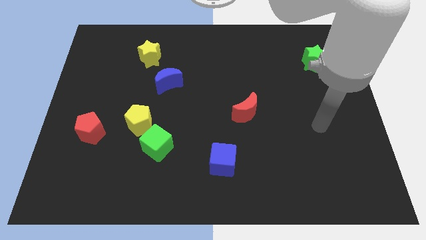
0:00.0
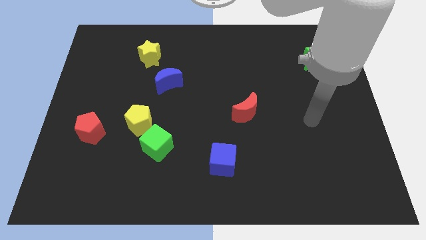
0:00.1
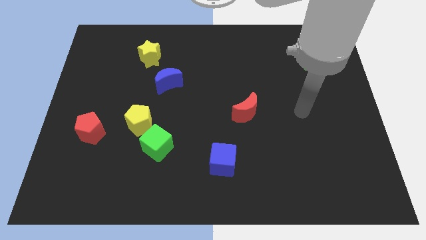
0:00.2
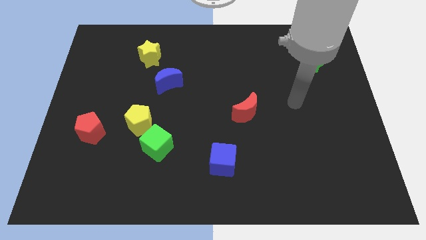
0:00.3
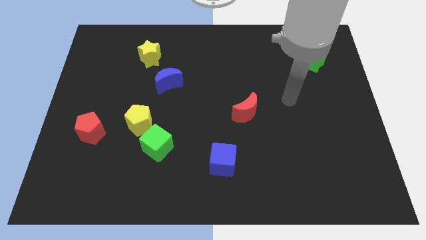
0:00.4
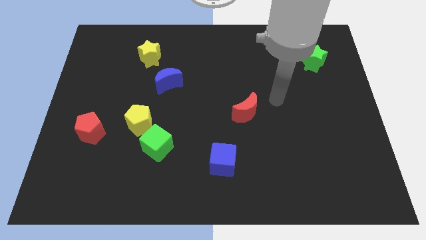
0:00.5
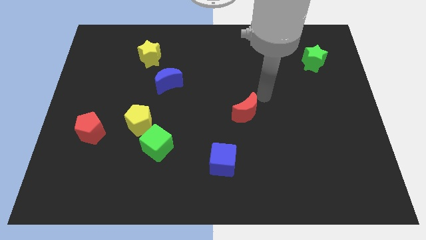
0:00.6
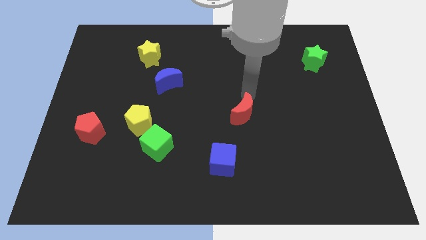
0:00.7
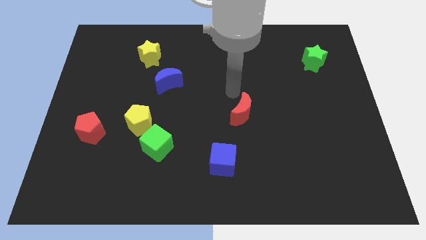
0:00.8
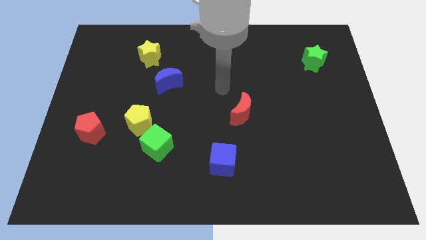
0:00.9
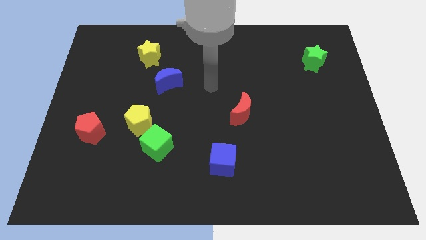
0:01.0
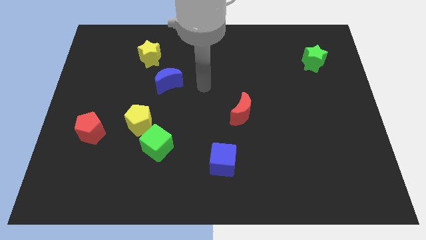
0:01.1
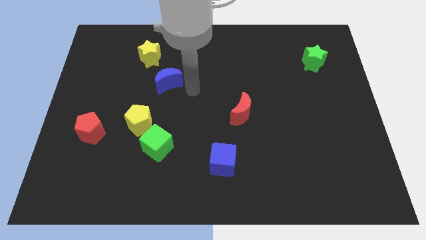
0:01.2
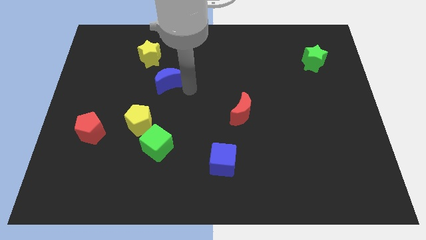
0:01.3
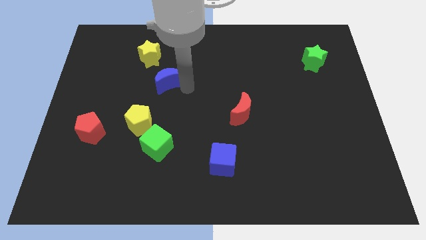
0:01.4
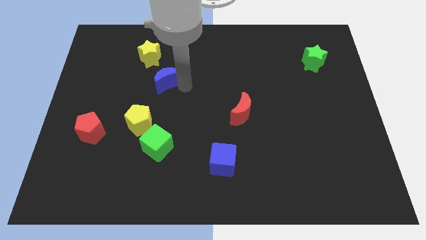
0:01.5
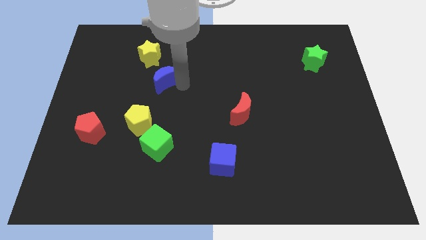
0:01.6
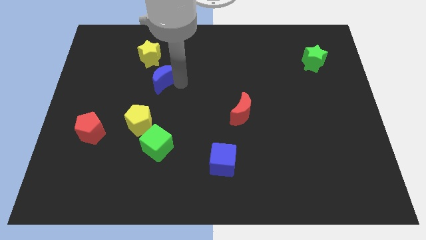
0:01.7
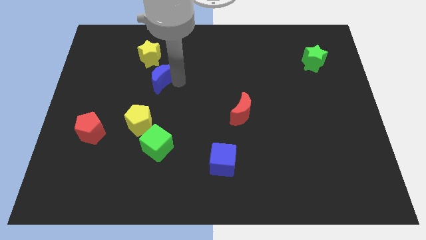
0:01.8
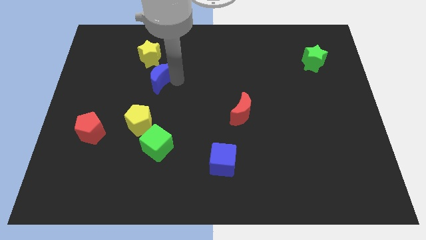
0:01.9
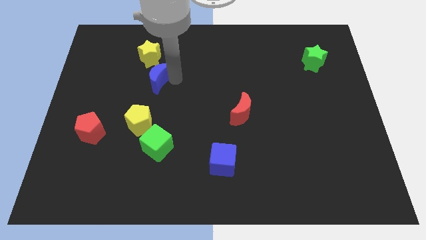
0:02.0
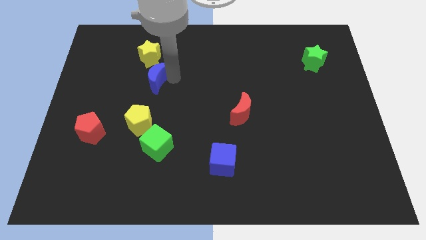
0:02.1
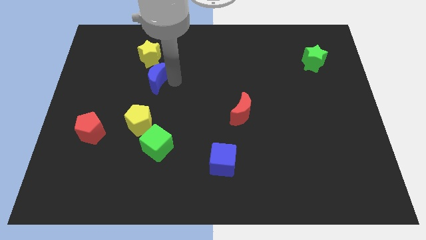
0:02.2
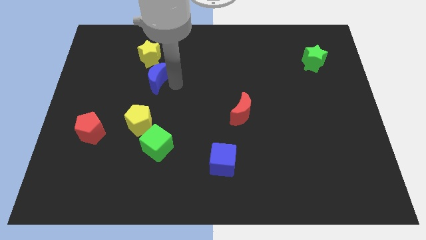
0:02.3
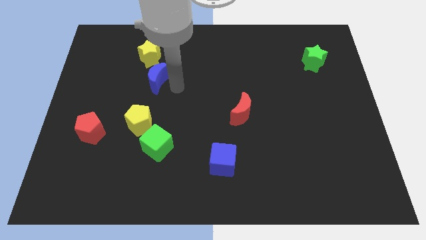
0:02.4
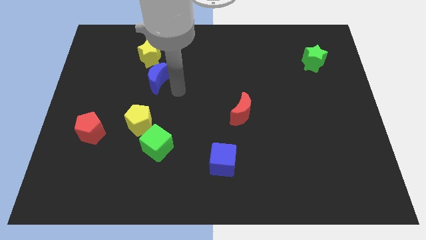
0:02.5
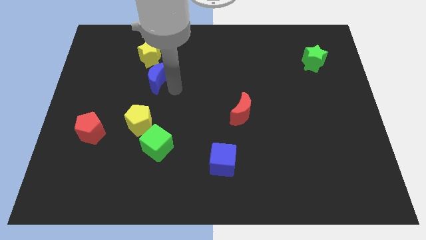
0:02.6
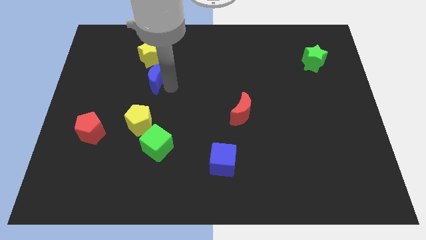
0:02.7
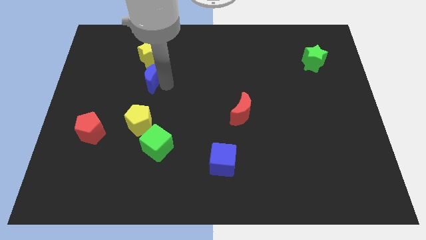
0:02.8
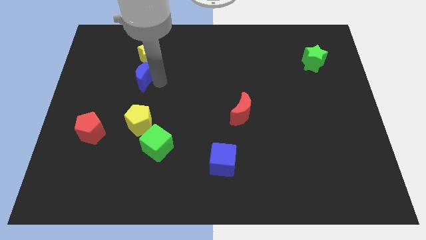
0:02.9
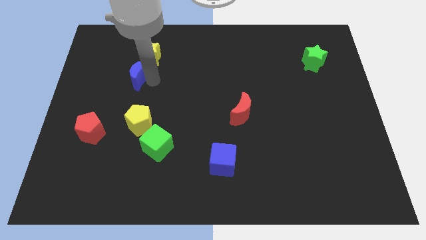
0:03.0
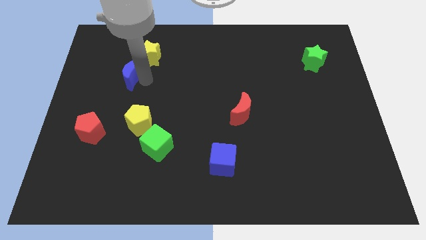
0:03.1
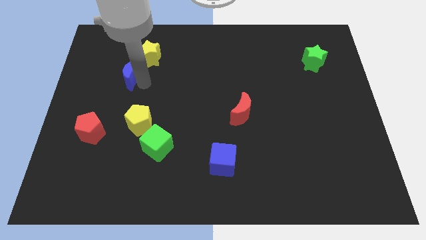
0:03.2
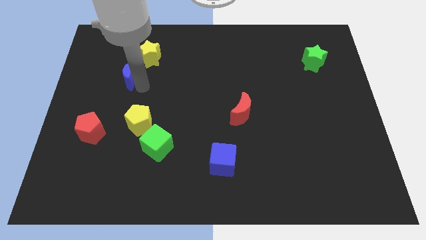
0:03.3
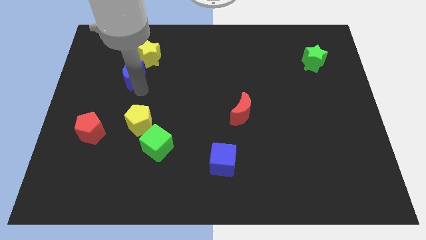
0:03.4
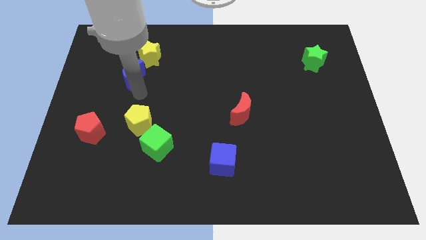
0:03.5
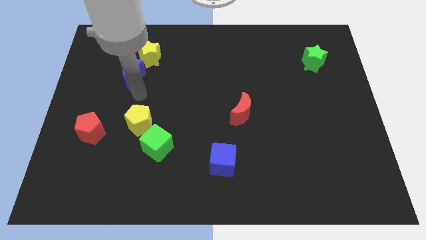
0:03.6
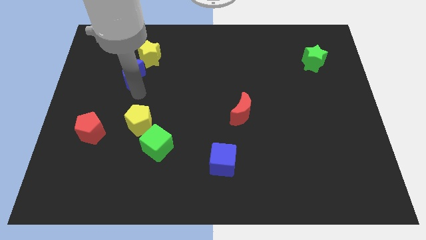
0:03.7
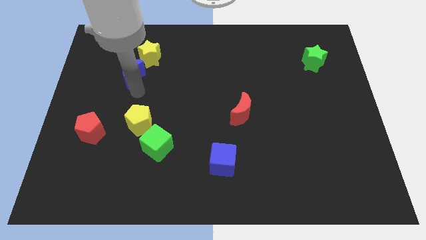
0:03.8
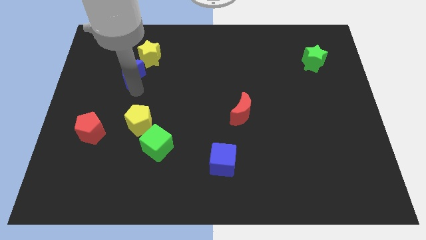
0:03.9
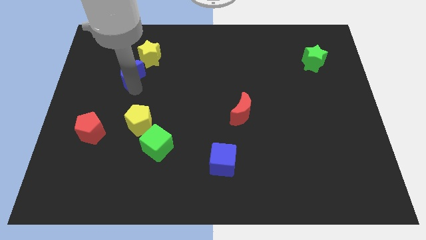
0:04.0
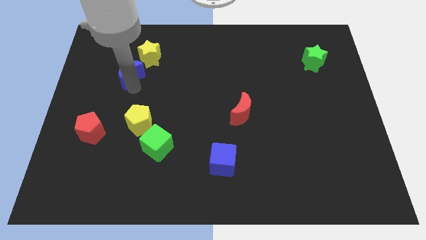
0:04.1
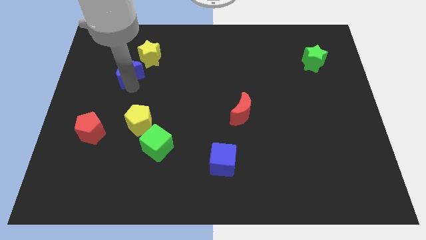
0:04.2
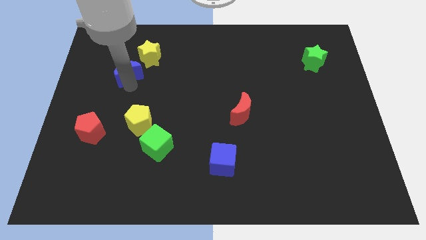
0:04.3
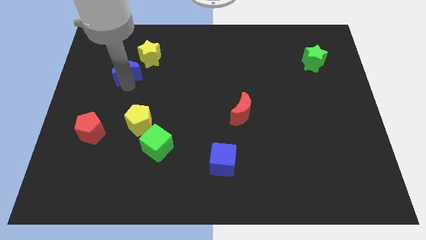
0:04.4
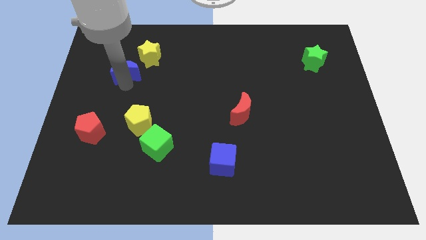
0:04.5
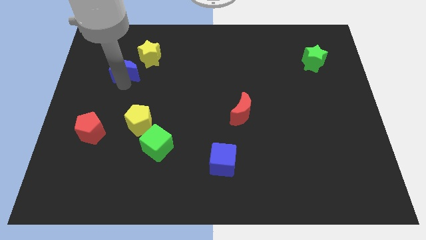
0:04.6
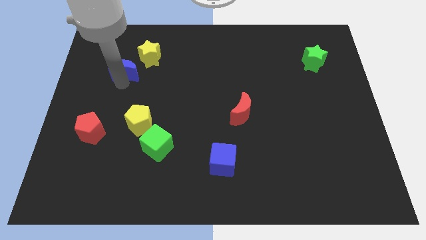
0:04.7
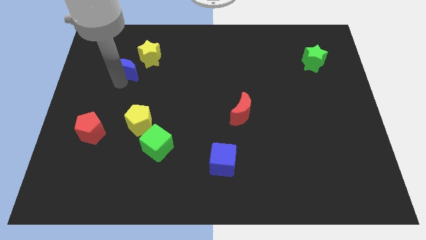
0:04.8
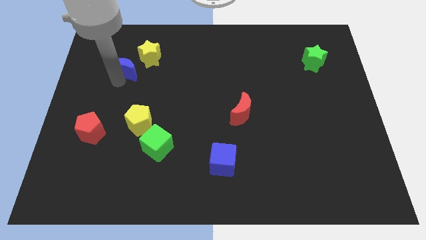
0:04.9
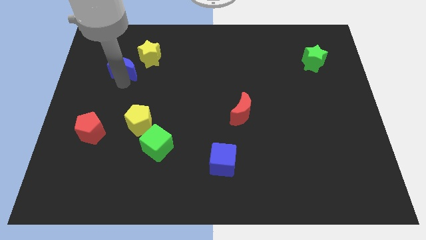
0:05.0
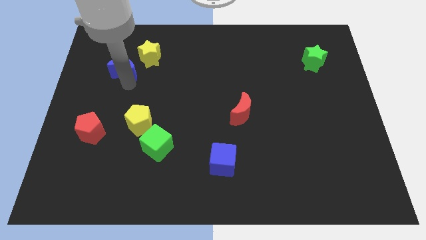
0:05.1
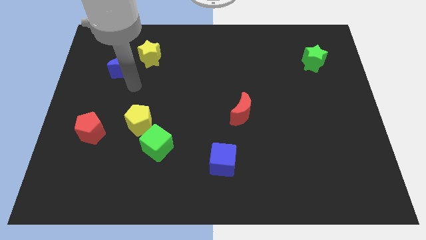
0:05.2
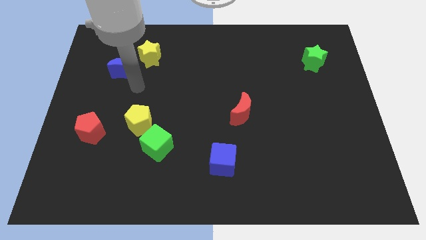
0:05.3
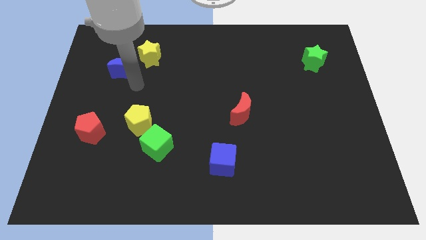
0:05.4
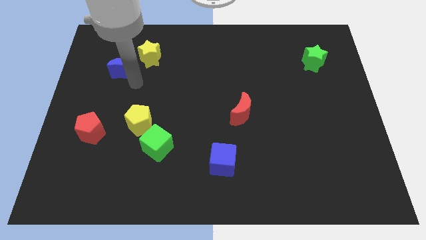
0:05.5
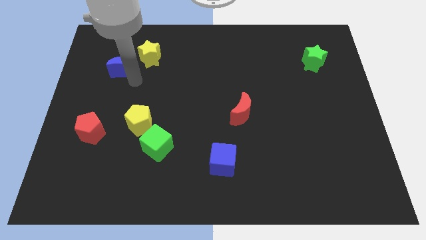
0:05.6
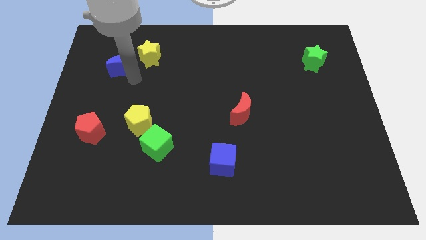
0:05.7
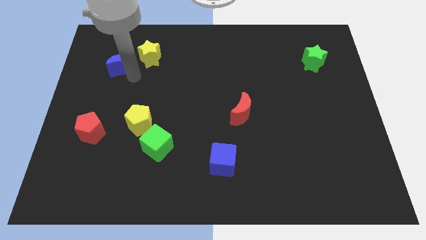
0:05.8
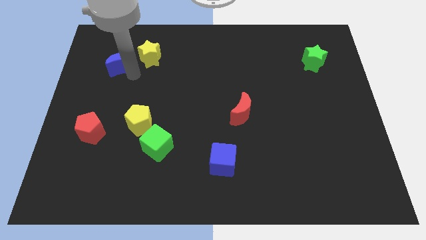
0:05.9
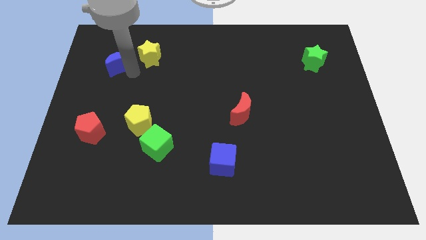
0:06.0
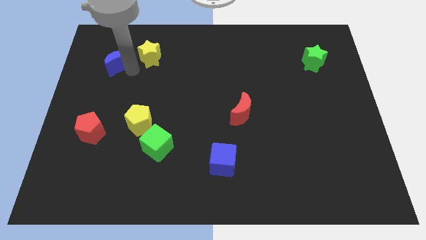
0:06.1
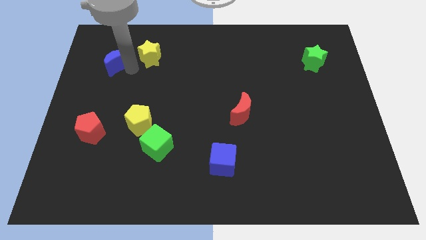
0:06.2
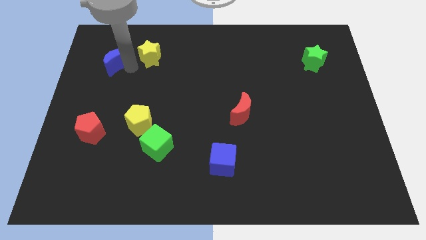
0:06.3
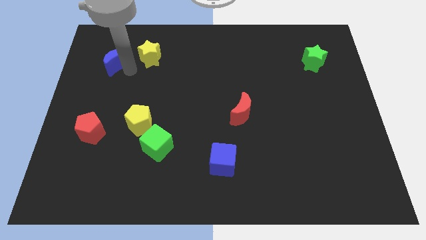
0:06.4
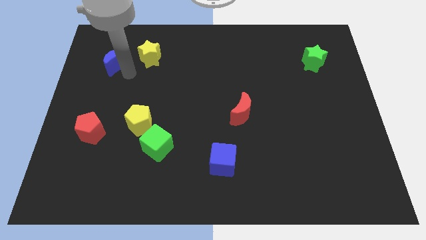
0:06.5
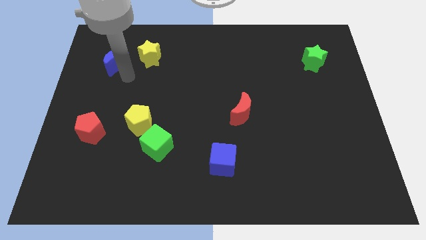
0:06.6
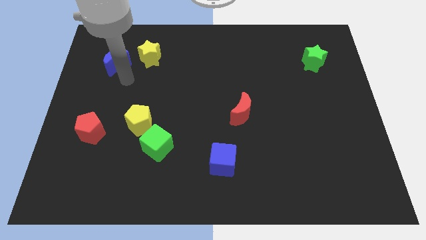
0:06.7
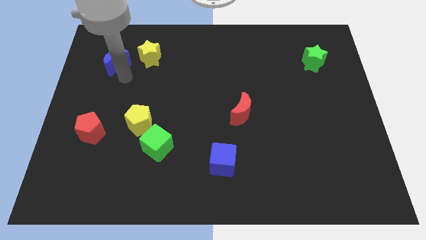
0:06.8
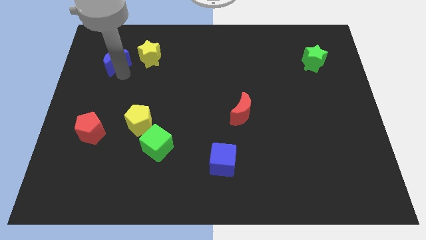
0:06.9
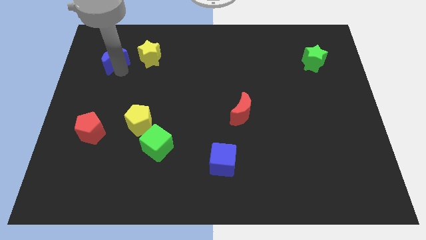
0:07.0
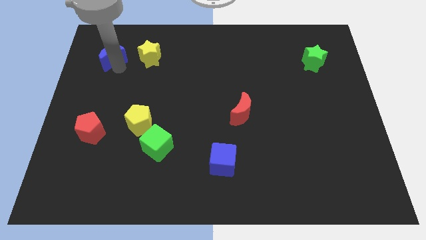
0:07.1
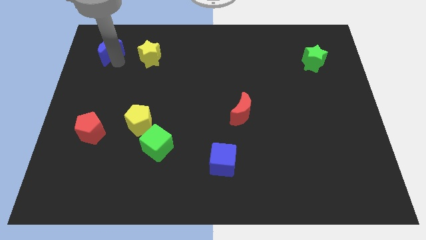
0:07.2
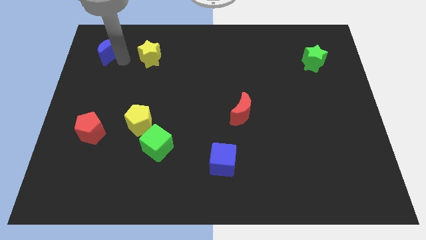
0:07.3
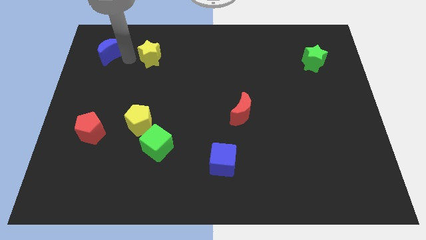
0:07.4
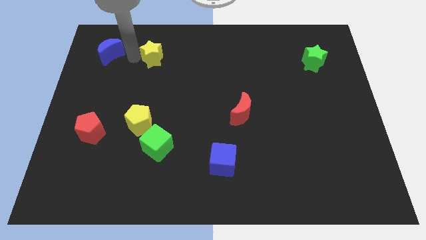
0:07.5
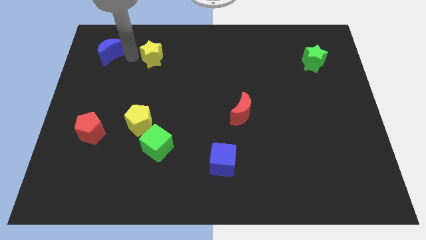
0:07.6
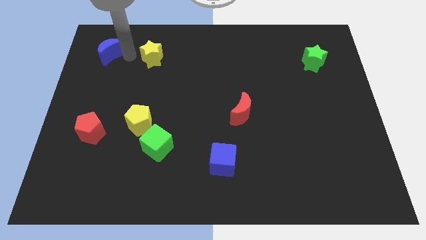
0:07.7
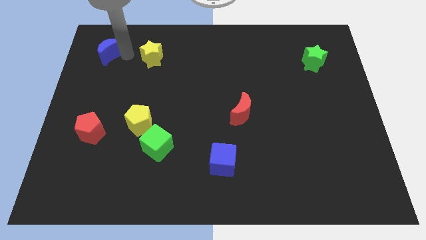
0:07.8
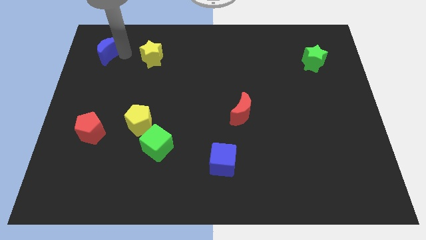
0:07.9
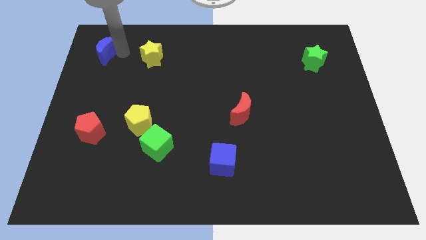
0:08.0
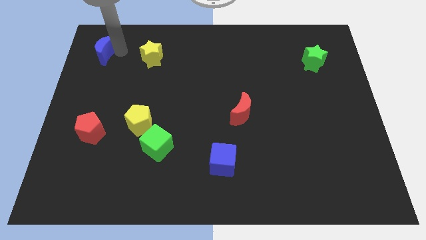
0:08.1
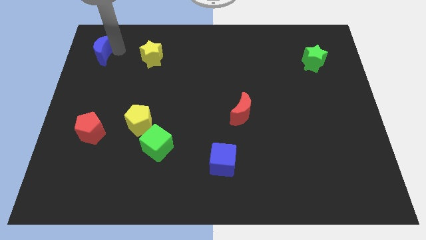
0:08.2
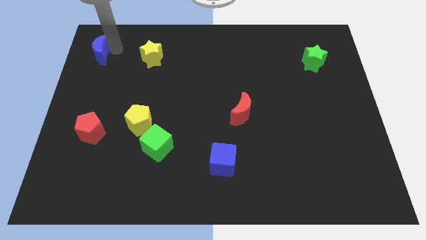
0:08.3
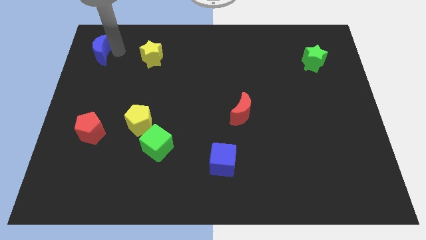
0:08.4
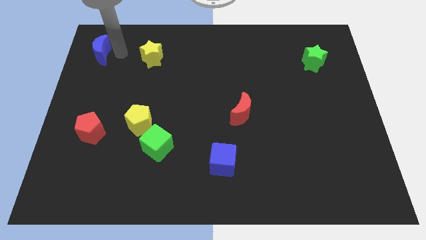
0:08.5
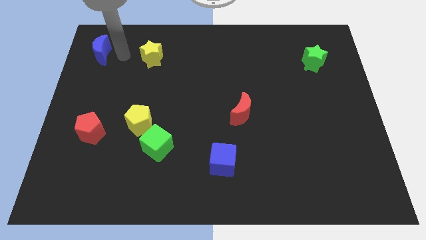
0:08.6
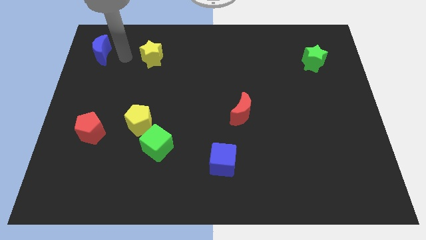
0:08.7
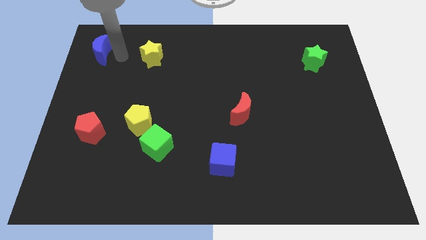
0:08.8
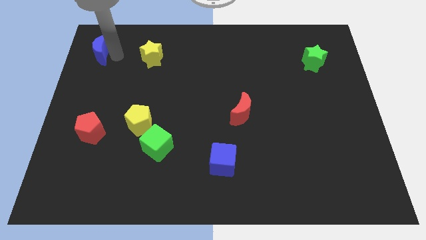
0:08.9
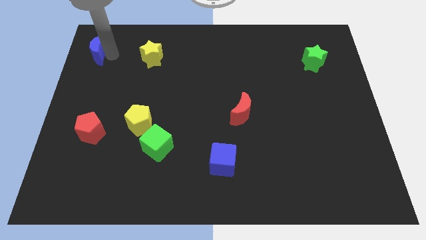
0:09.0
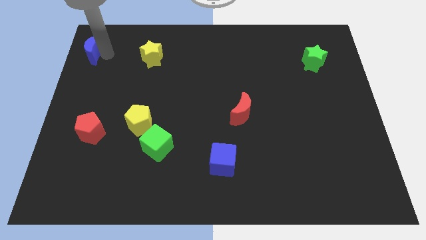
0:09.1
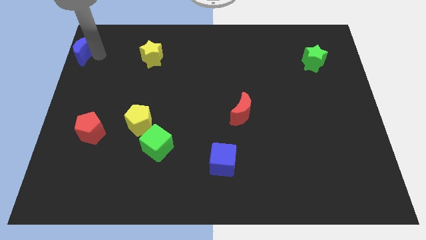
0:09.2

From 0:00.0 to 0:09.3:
push the blue moon to the top left corner
